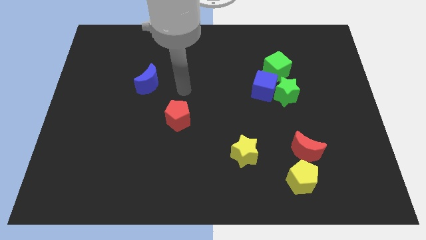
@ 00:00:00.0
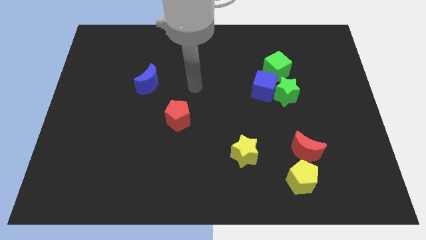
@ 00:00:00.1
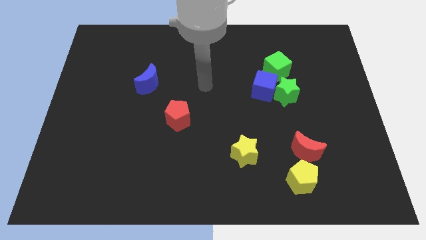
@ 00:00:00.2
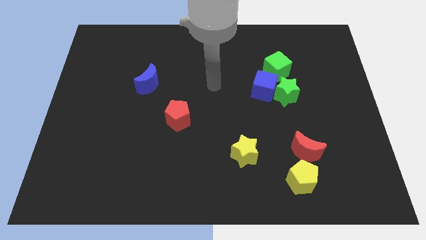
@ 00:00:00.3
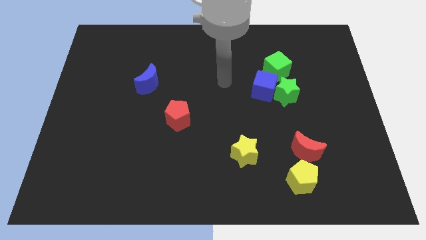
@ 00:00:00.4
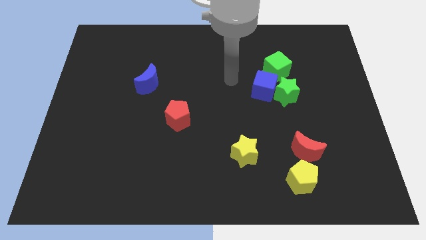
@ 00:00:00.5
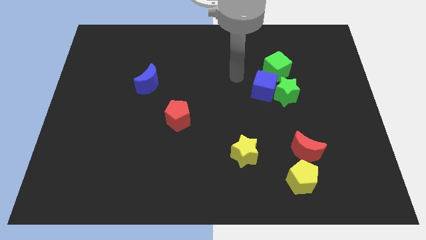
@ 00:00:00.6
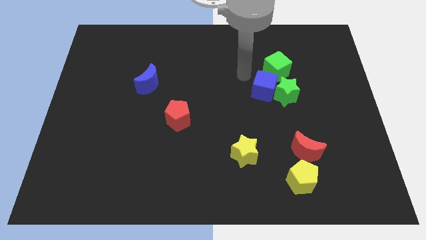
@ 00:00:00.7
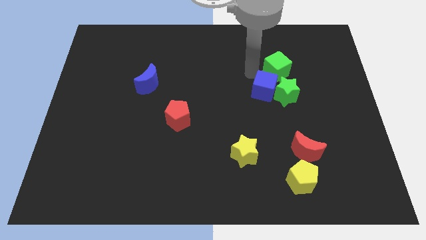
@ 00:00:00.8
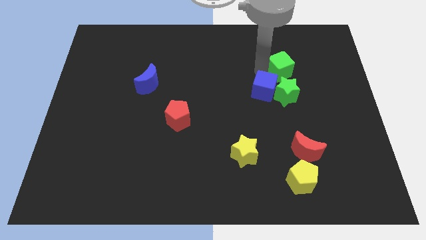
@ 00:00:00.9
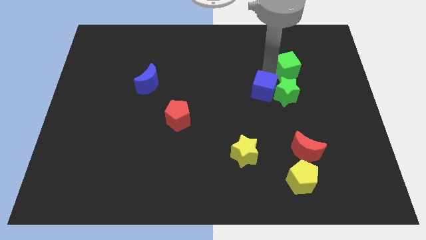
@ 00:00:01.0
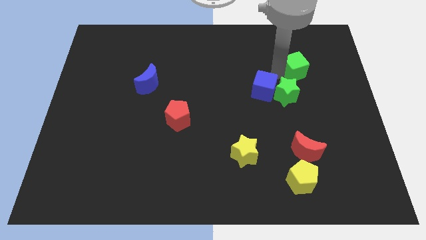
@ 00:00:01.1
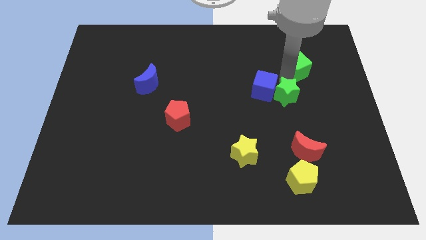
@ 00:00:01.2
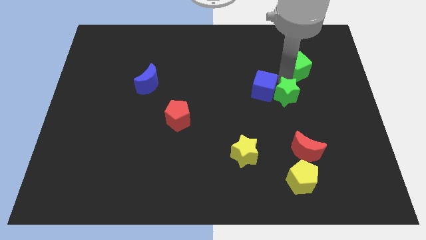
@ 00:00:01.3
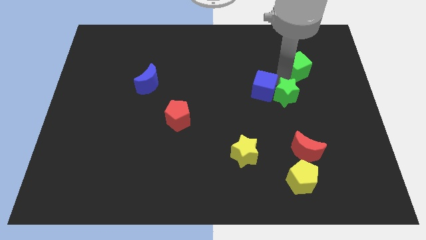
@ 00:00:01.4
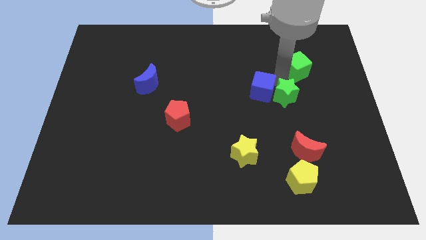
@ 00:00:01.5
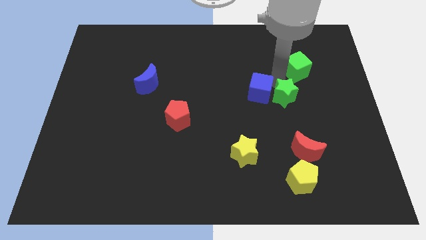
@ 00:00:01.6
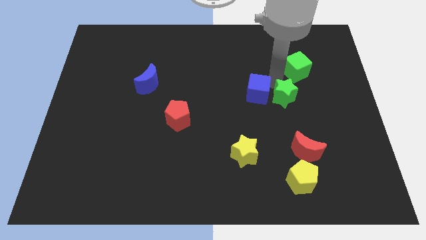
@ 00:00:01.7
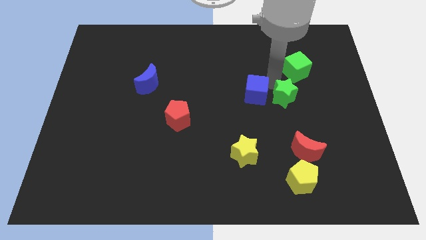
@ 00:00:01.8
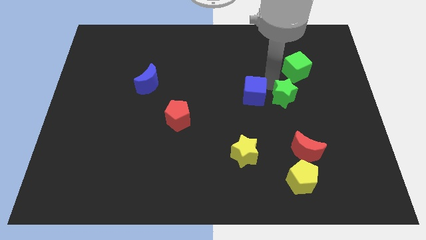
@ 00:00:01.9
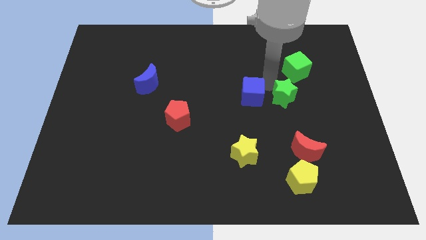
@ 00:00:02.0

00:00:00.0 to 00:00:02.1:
separate the blue cube from the green star and green cube

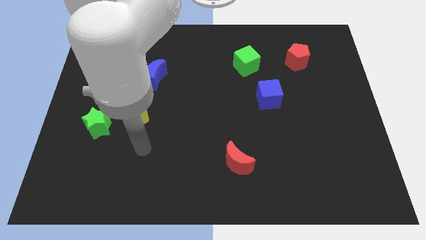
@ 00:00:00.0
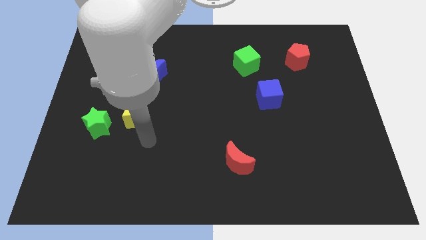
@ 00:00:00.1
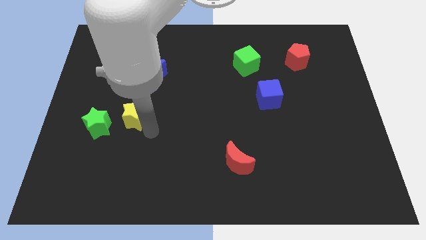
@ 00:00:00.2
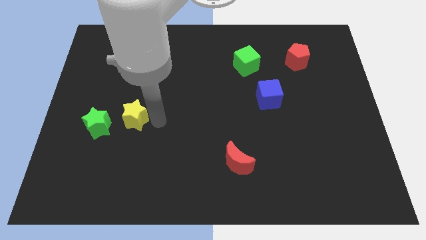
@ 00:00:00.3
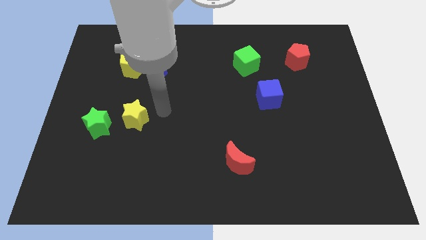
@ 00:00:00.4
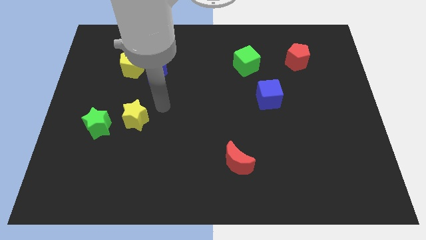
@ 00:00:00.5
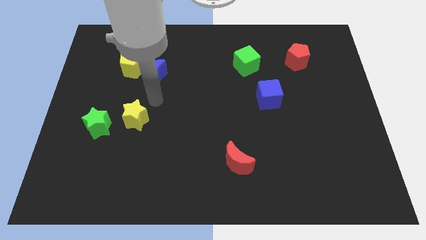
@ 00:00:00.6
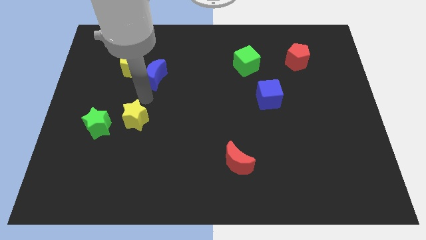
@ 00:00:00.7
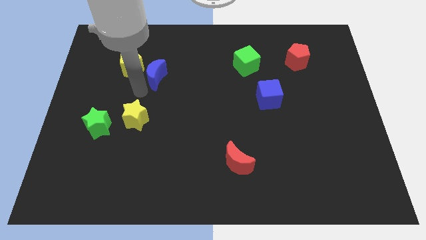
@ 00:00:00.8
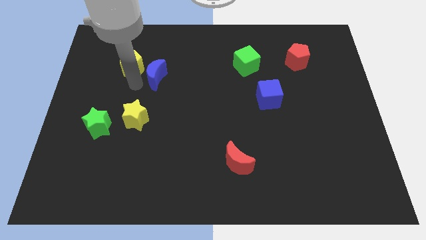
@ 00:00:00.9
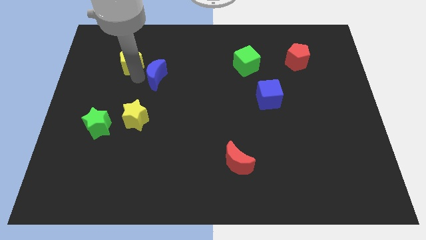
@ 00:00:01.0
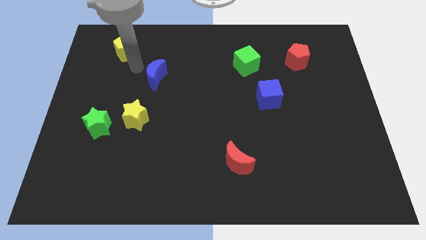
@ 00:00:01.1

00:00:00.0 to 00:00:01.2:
separate the blue moon from the yellow pentagon

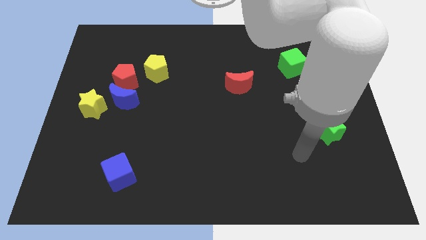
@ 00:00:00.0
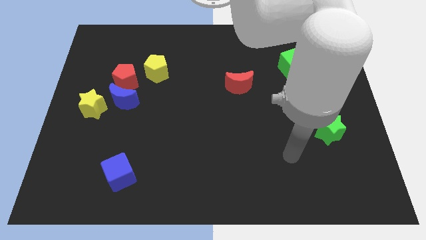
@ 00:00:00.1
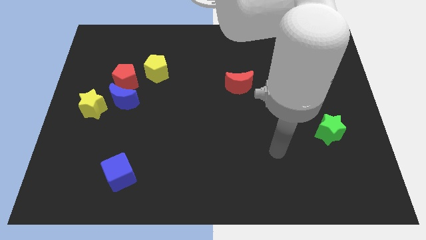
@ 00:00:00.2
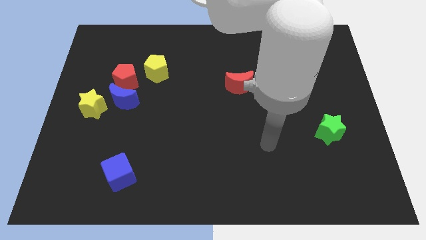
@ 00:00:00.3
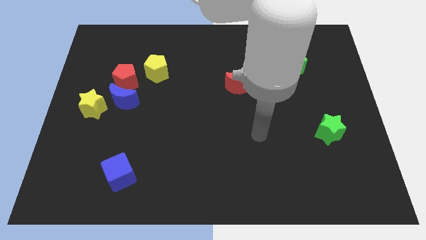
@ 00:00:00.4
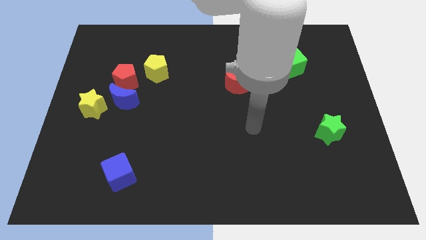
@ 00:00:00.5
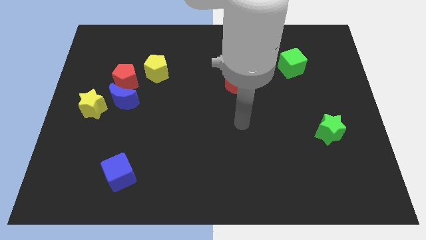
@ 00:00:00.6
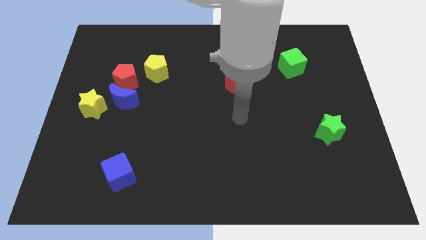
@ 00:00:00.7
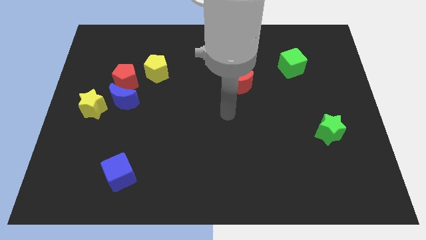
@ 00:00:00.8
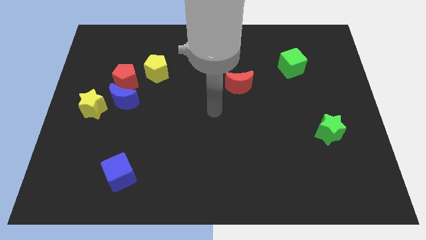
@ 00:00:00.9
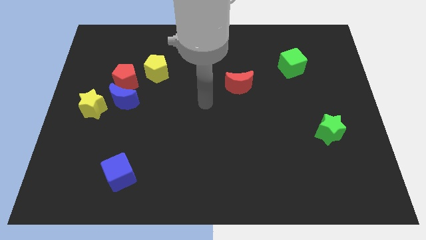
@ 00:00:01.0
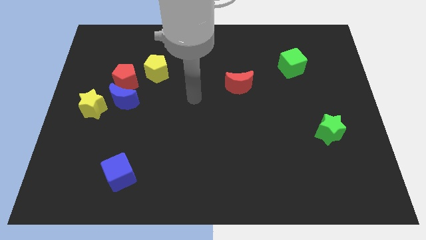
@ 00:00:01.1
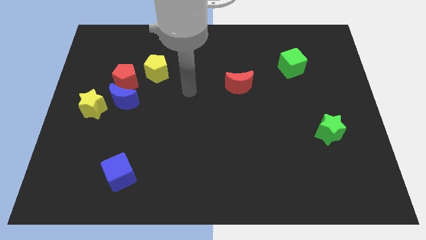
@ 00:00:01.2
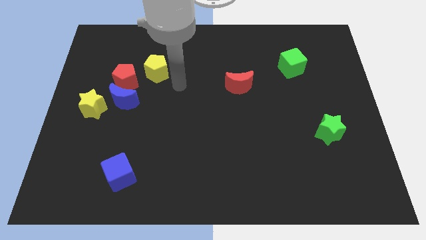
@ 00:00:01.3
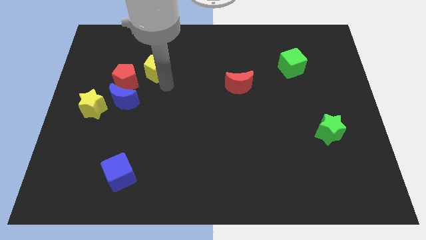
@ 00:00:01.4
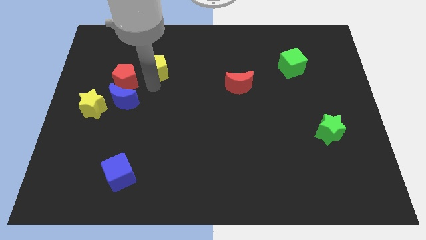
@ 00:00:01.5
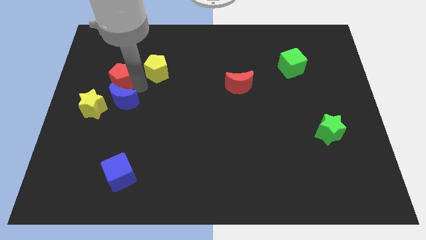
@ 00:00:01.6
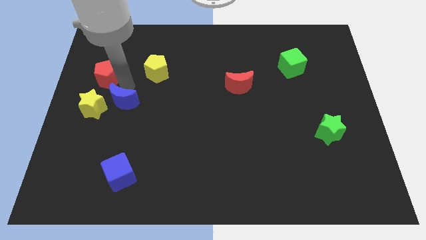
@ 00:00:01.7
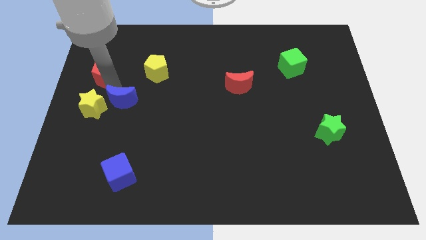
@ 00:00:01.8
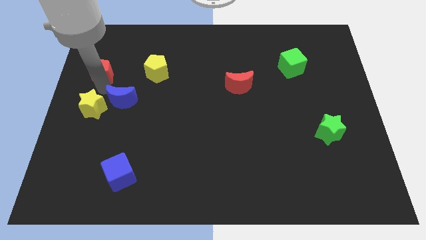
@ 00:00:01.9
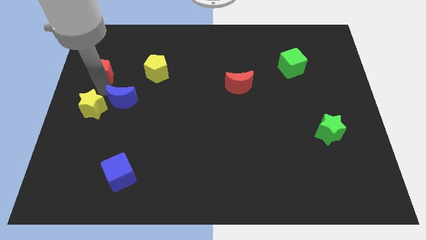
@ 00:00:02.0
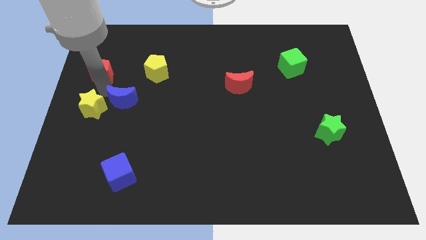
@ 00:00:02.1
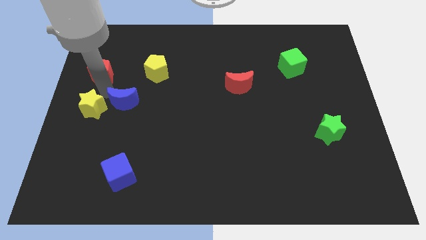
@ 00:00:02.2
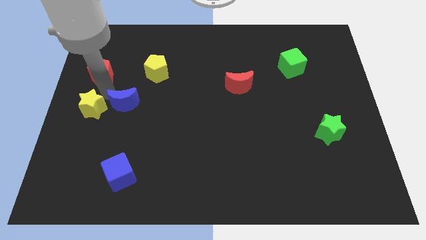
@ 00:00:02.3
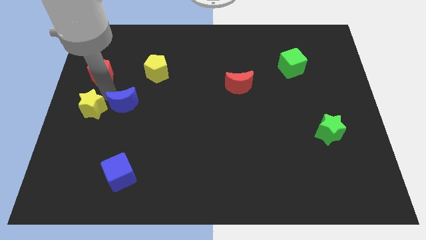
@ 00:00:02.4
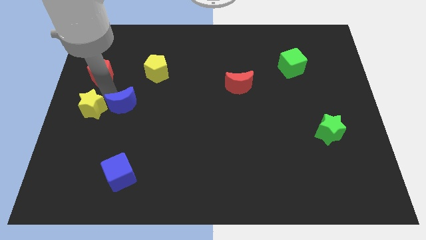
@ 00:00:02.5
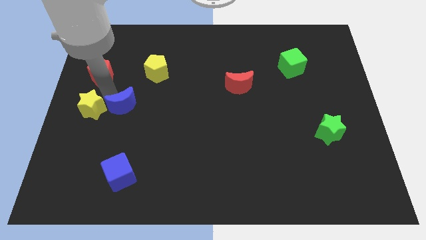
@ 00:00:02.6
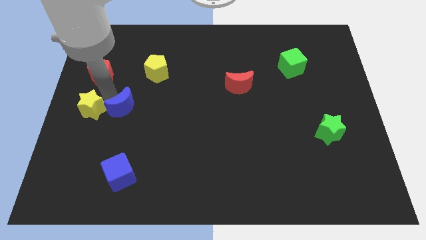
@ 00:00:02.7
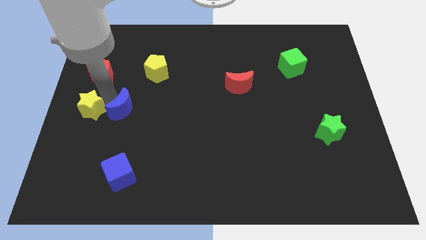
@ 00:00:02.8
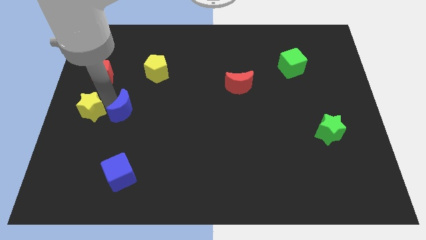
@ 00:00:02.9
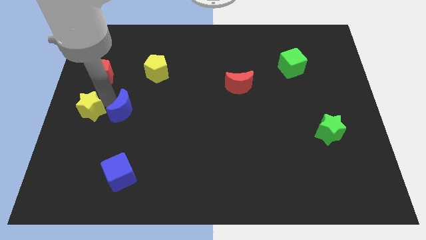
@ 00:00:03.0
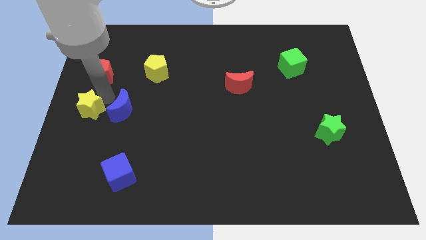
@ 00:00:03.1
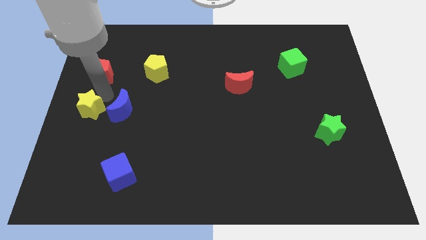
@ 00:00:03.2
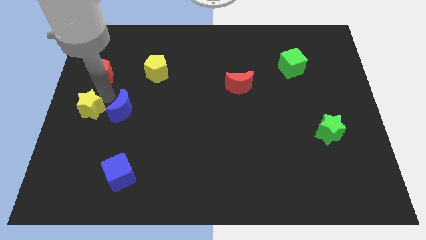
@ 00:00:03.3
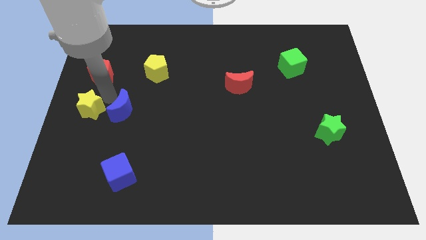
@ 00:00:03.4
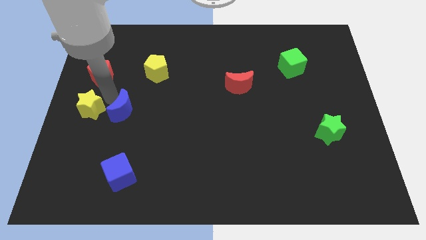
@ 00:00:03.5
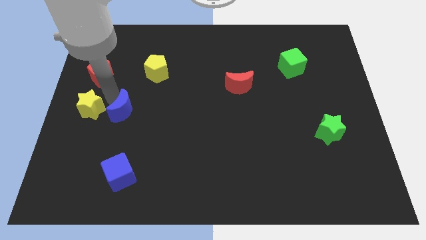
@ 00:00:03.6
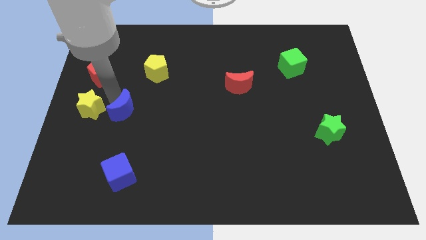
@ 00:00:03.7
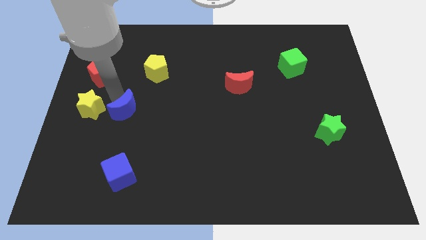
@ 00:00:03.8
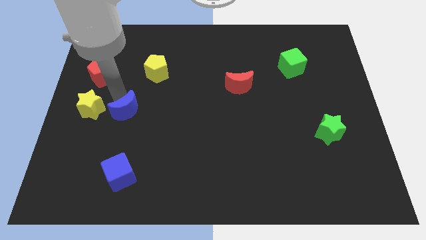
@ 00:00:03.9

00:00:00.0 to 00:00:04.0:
pull the blue moon apart from the red pentagon and yellow star

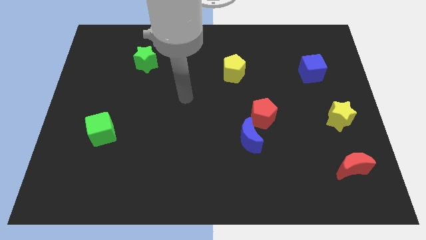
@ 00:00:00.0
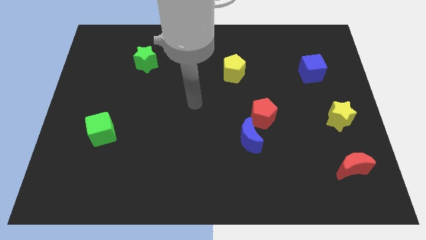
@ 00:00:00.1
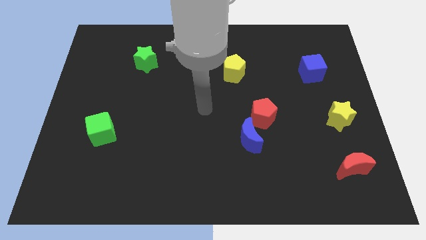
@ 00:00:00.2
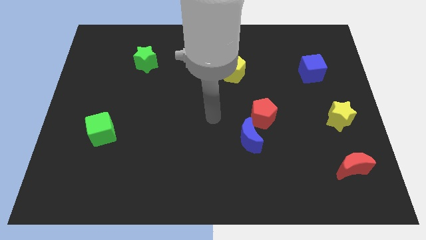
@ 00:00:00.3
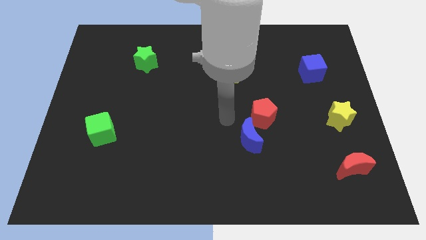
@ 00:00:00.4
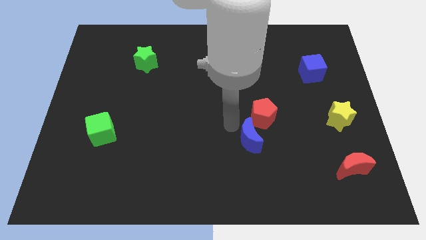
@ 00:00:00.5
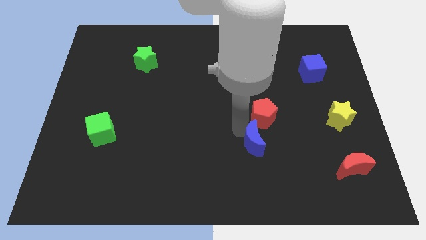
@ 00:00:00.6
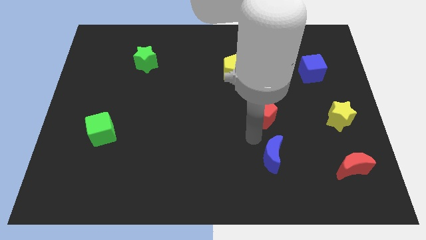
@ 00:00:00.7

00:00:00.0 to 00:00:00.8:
move the red pentagon away from the blue moon

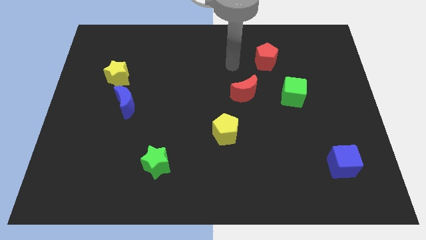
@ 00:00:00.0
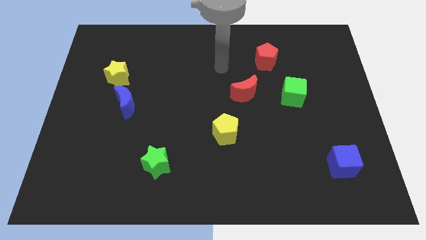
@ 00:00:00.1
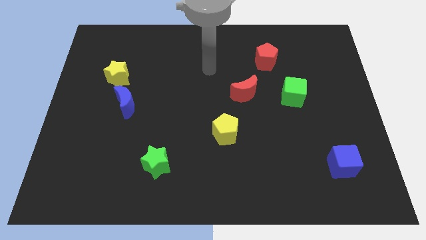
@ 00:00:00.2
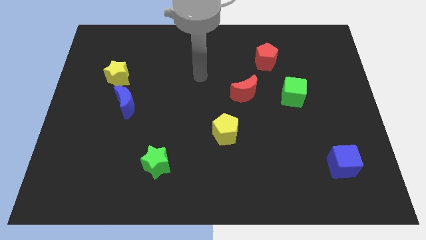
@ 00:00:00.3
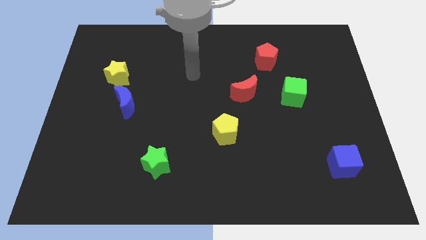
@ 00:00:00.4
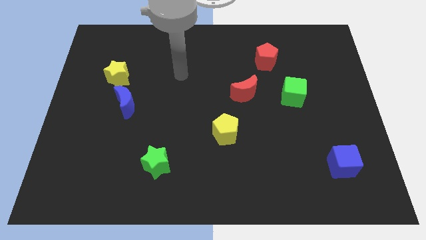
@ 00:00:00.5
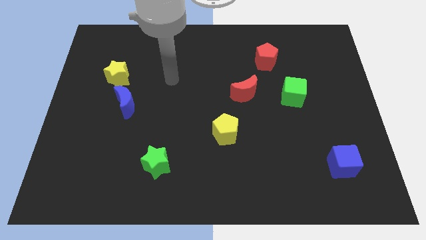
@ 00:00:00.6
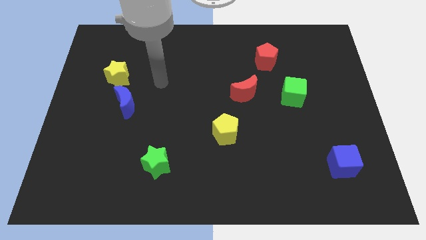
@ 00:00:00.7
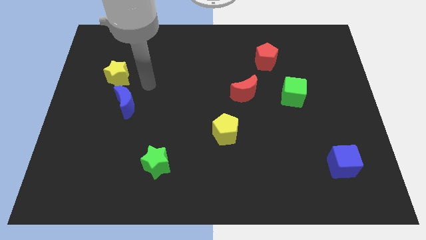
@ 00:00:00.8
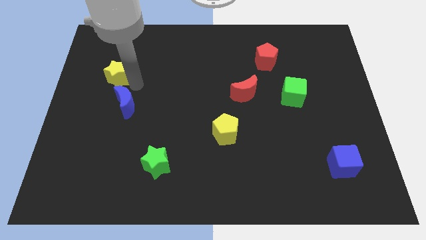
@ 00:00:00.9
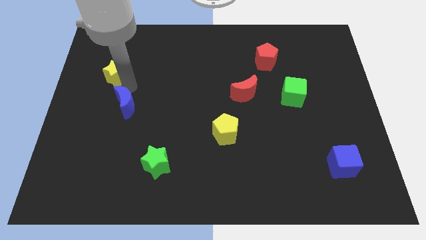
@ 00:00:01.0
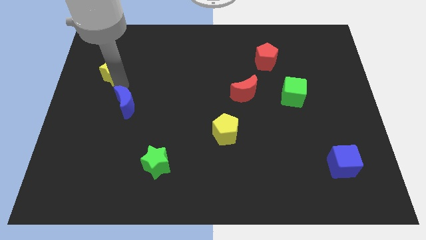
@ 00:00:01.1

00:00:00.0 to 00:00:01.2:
separate the blue moon from the yellow star
